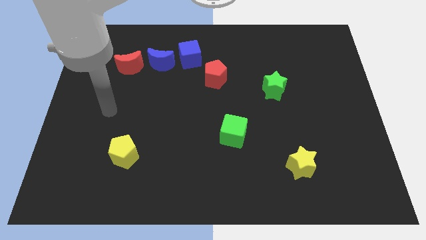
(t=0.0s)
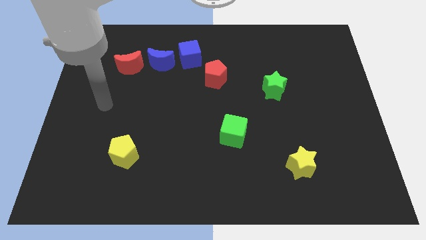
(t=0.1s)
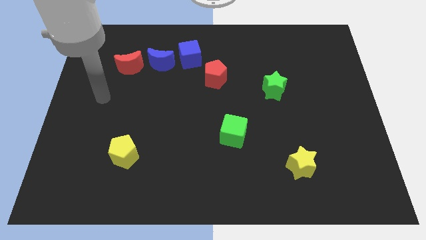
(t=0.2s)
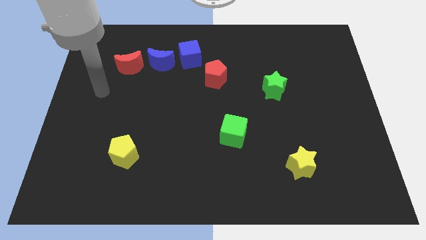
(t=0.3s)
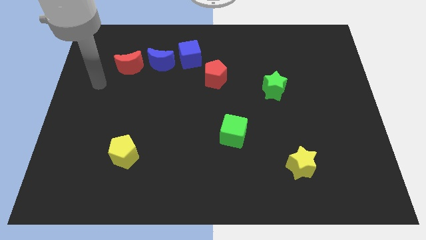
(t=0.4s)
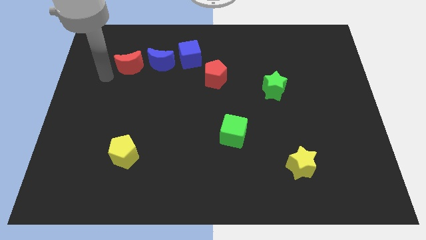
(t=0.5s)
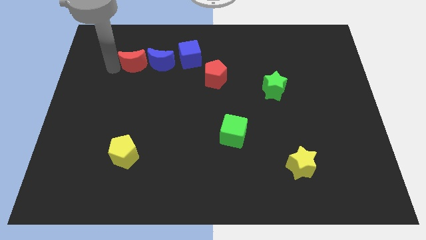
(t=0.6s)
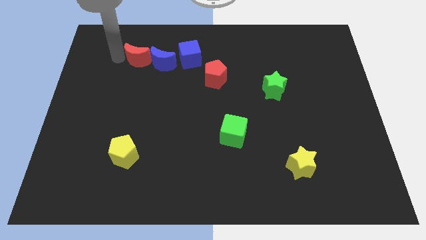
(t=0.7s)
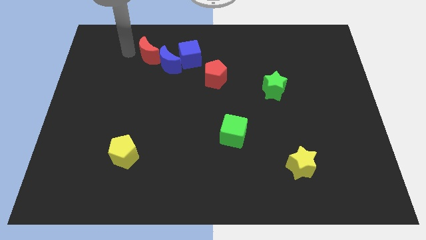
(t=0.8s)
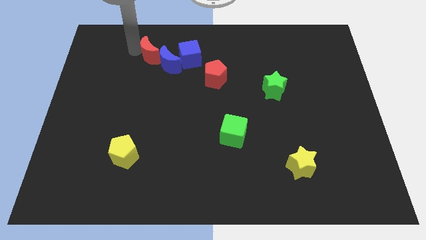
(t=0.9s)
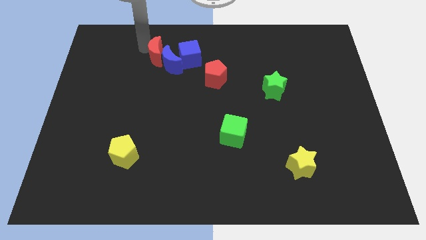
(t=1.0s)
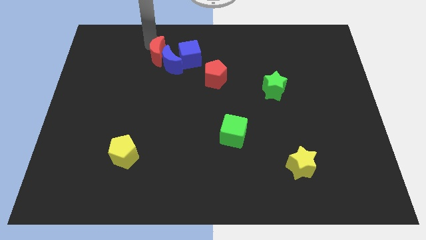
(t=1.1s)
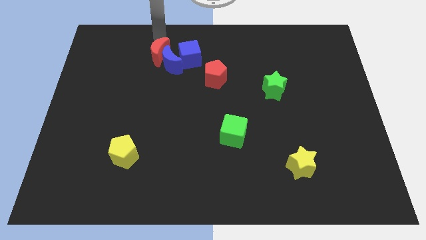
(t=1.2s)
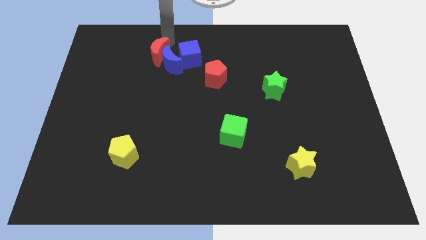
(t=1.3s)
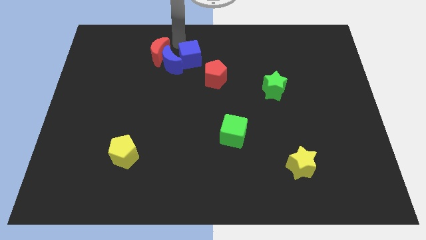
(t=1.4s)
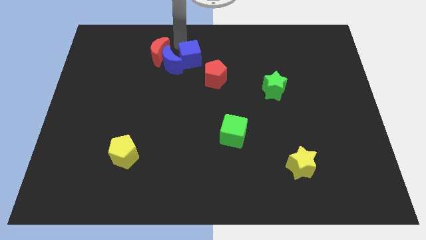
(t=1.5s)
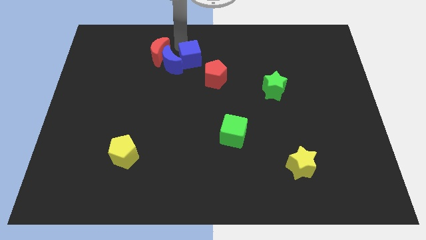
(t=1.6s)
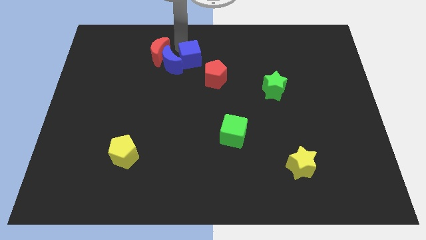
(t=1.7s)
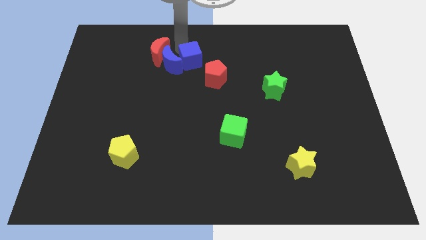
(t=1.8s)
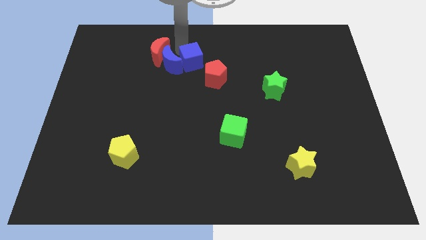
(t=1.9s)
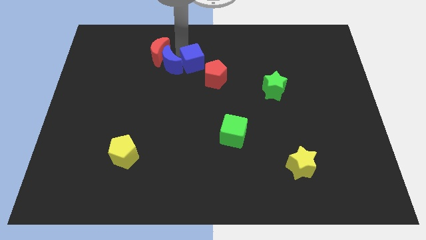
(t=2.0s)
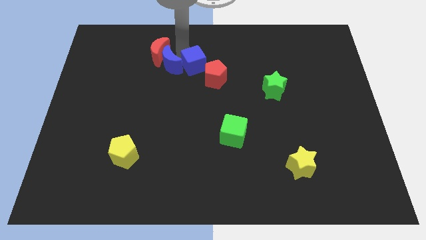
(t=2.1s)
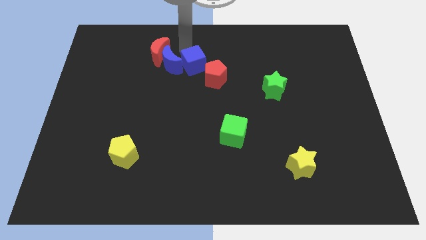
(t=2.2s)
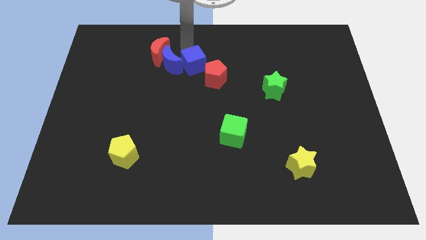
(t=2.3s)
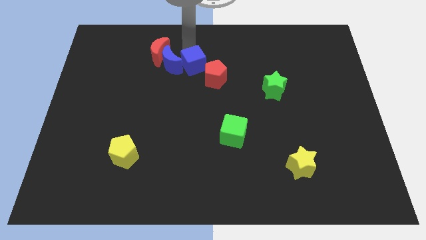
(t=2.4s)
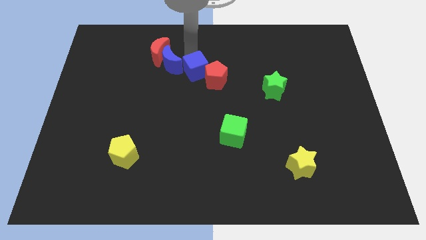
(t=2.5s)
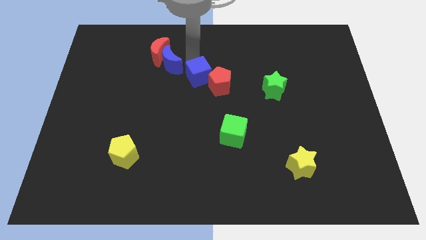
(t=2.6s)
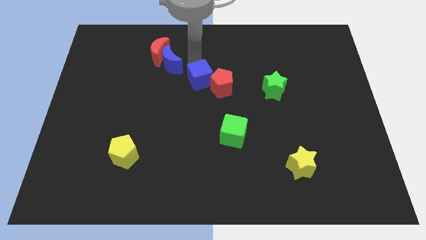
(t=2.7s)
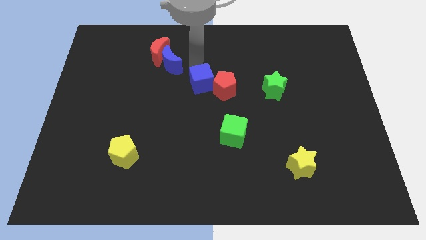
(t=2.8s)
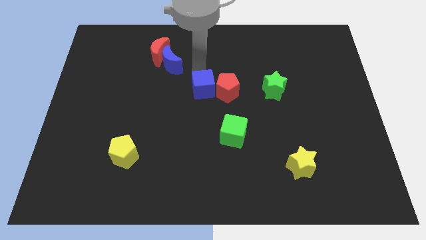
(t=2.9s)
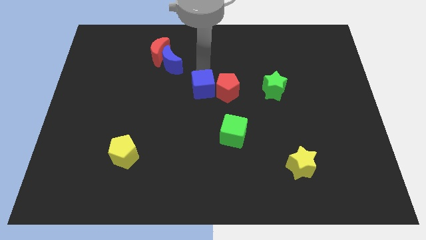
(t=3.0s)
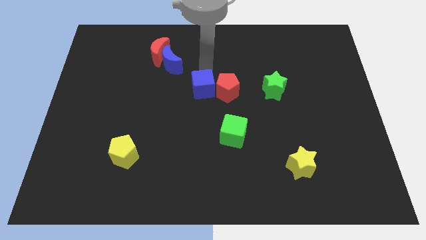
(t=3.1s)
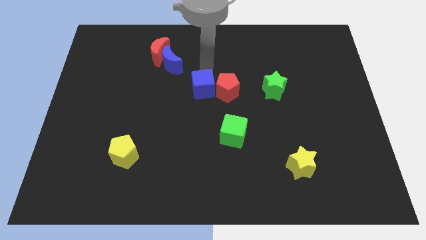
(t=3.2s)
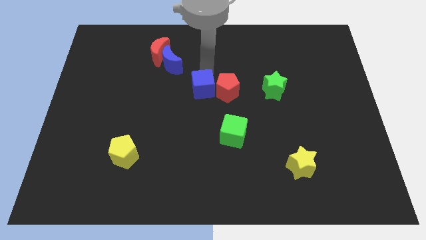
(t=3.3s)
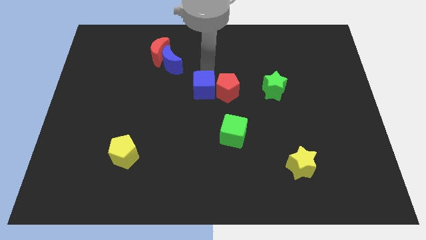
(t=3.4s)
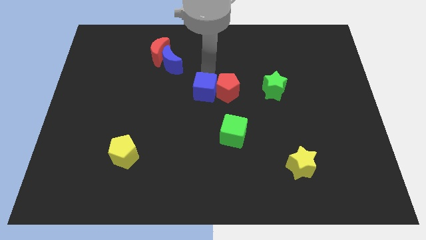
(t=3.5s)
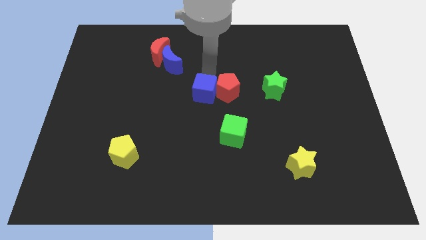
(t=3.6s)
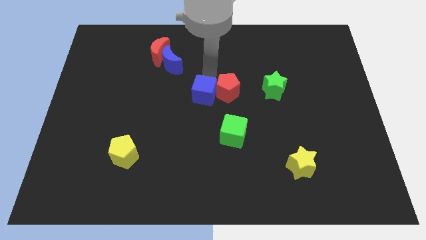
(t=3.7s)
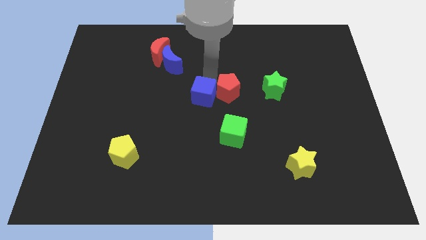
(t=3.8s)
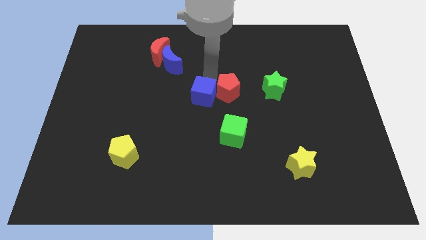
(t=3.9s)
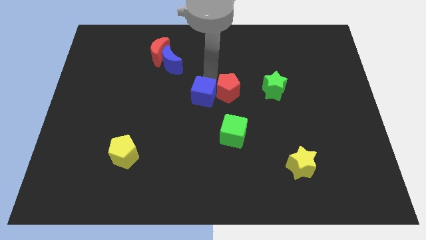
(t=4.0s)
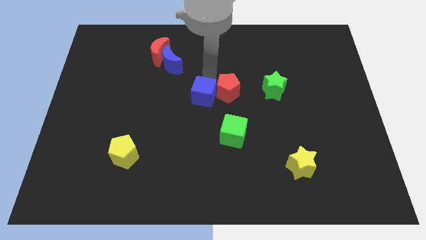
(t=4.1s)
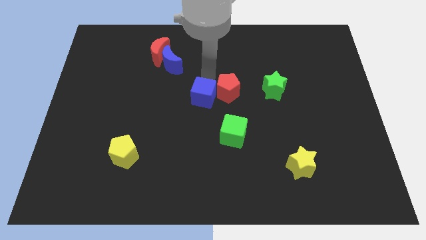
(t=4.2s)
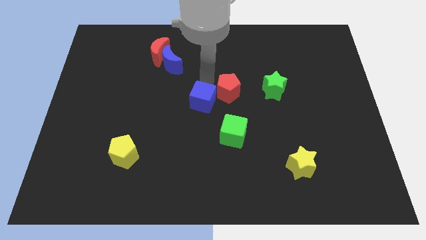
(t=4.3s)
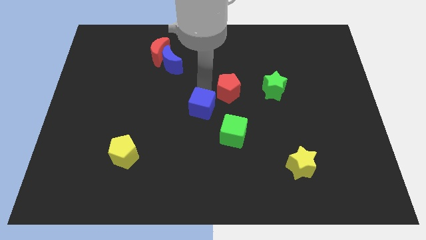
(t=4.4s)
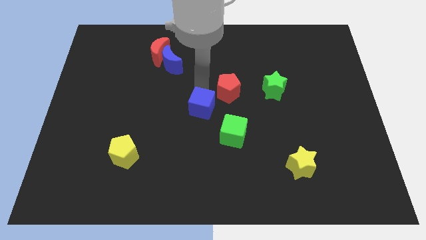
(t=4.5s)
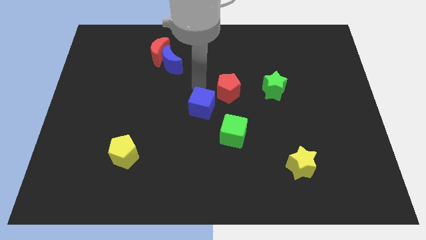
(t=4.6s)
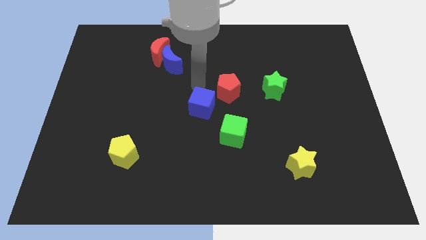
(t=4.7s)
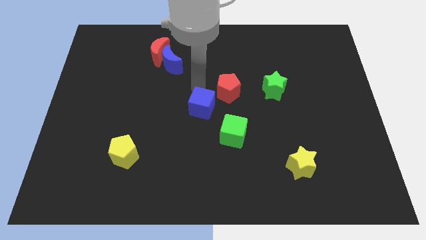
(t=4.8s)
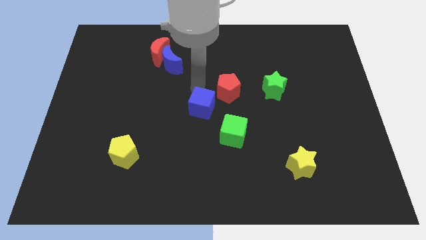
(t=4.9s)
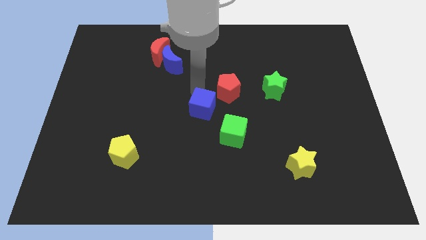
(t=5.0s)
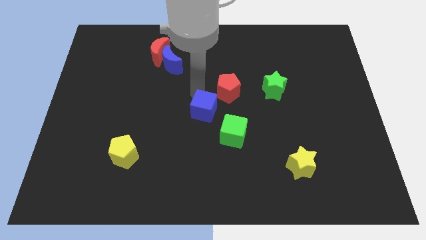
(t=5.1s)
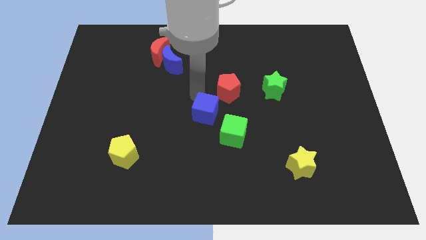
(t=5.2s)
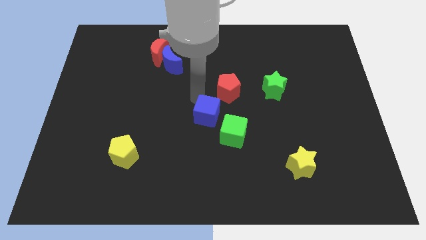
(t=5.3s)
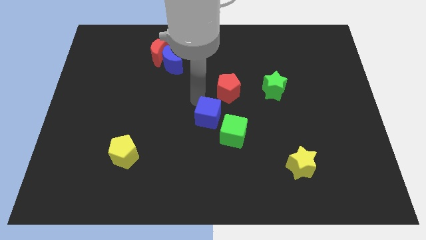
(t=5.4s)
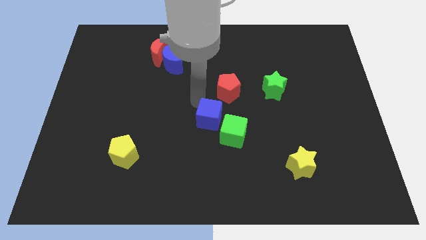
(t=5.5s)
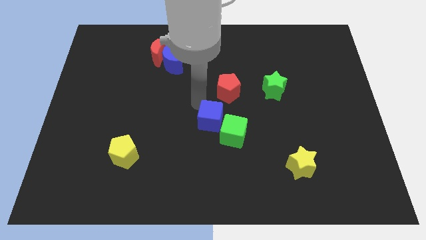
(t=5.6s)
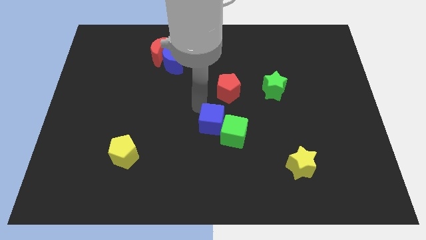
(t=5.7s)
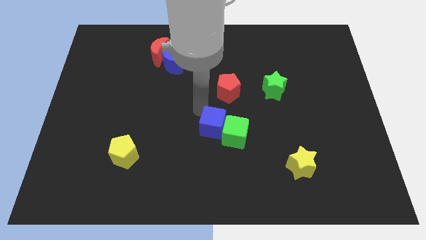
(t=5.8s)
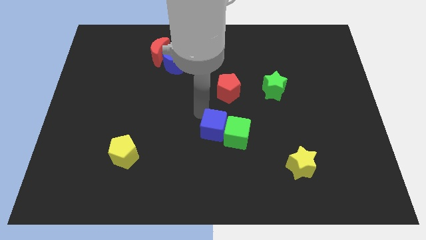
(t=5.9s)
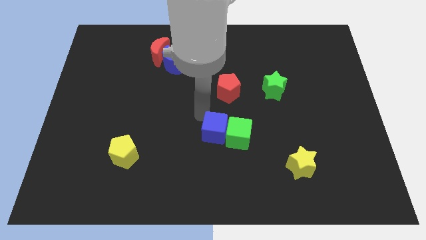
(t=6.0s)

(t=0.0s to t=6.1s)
move the blue cube diagonally down and to the left of the green cube

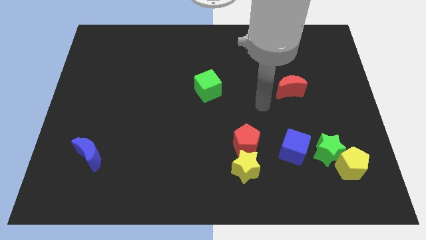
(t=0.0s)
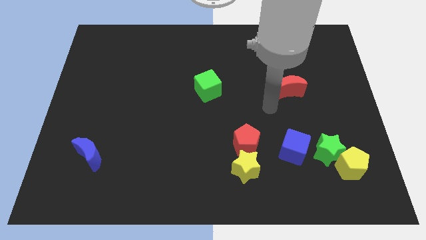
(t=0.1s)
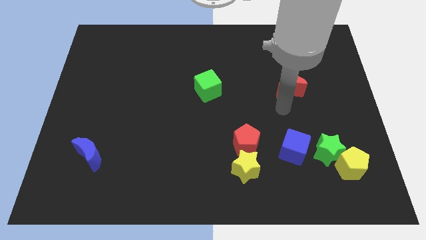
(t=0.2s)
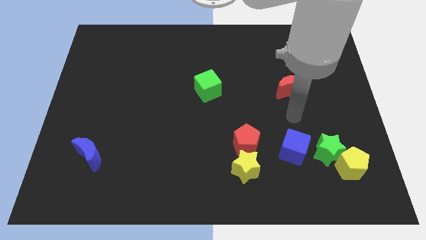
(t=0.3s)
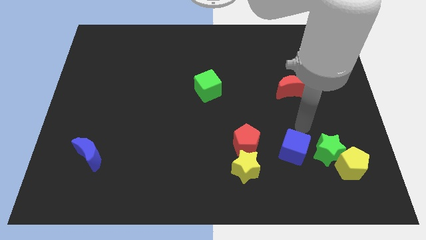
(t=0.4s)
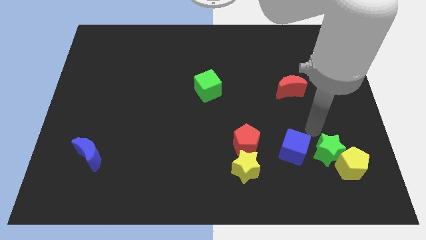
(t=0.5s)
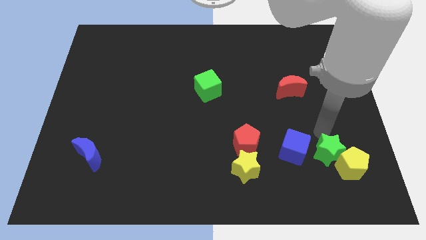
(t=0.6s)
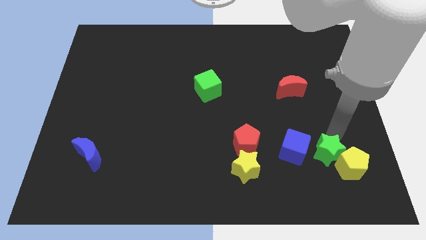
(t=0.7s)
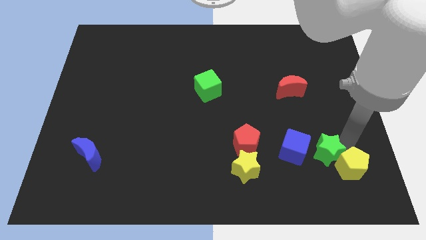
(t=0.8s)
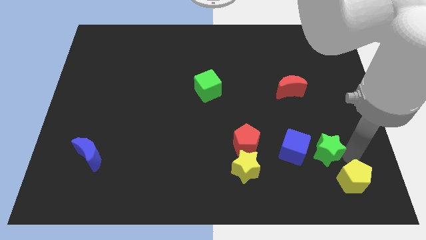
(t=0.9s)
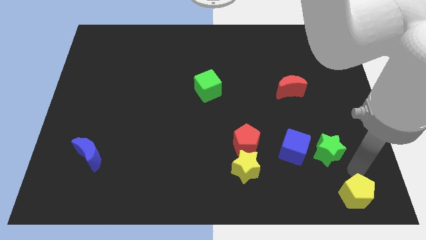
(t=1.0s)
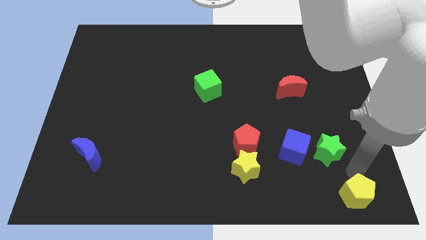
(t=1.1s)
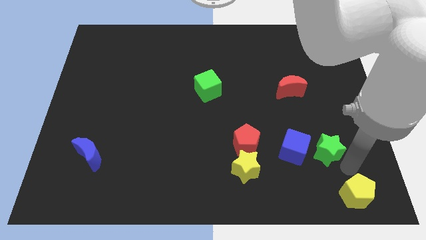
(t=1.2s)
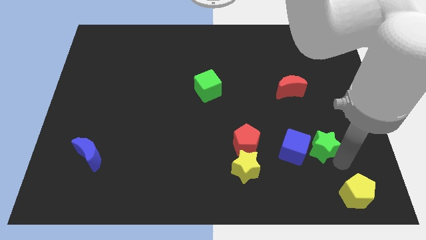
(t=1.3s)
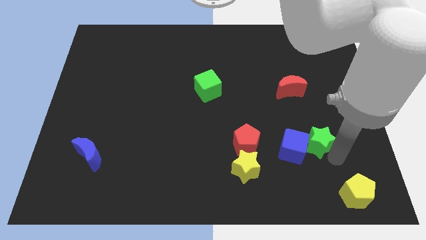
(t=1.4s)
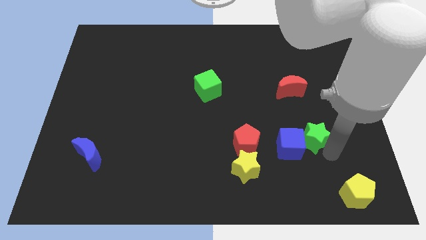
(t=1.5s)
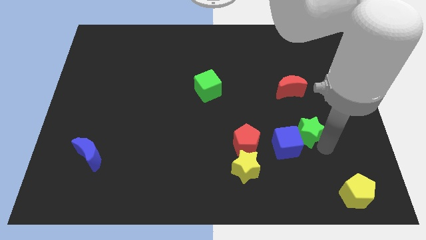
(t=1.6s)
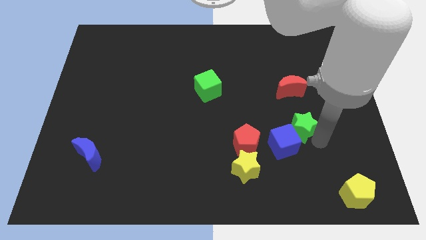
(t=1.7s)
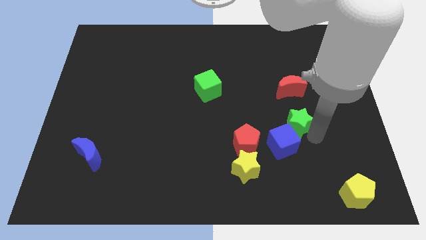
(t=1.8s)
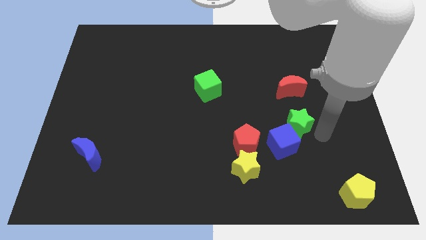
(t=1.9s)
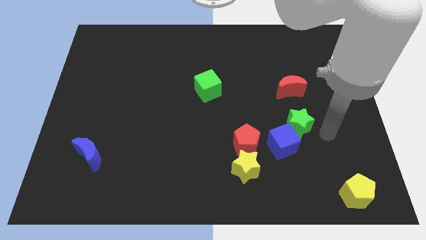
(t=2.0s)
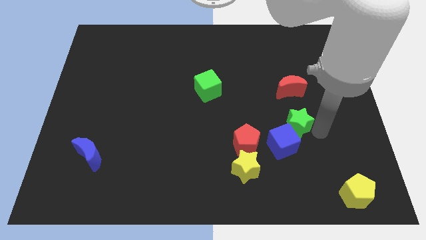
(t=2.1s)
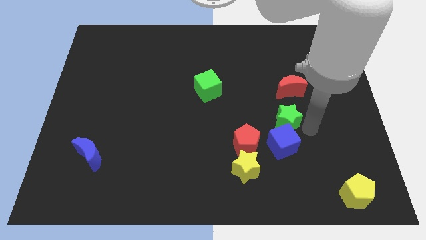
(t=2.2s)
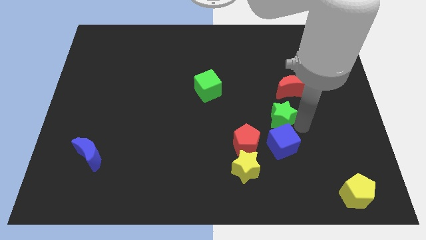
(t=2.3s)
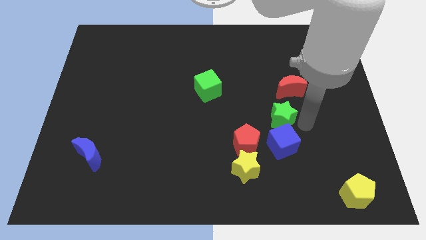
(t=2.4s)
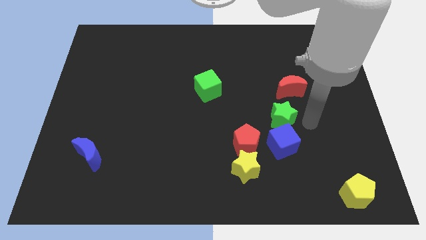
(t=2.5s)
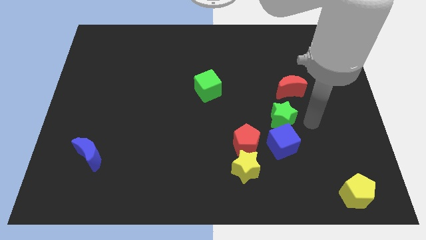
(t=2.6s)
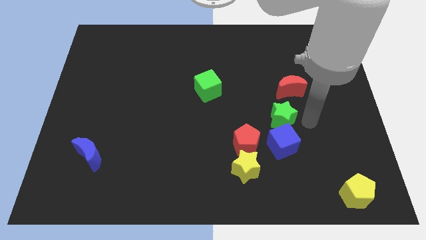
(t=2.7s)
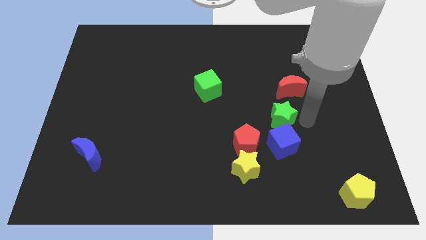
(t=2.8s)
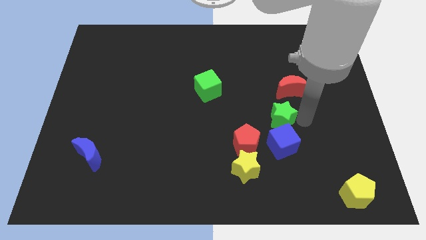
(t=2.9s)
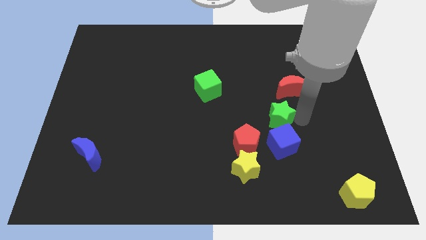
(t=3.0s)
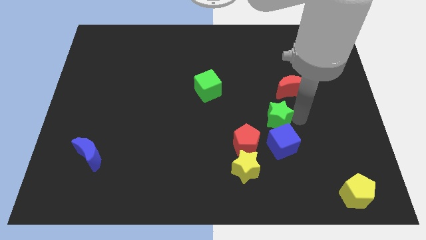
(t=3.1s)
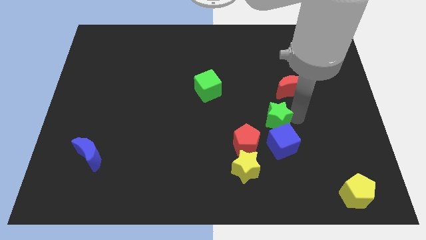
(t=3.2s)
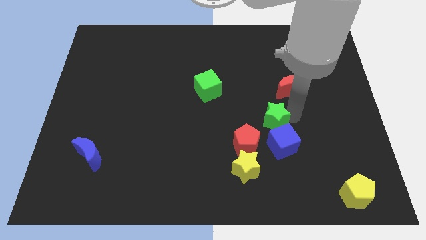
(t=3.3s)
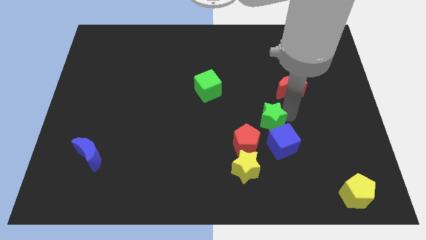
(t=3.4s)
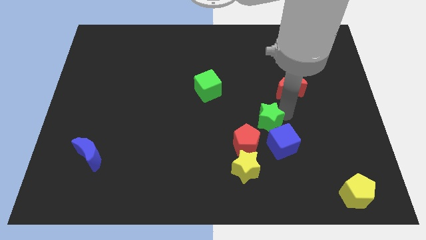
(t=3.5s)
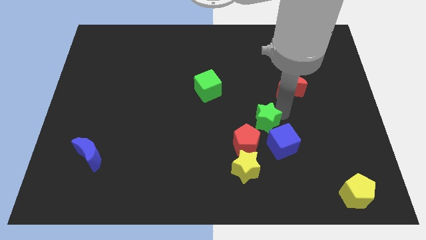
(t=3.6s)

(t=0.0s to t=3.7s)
push the green star above the red pentagon
